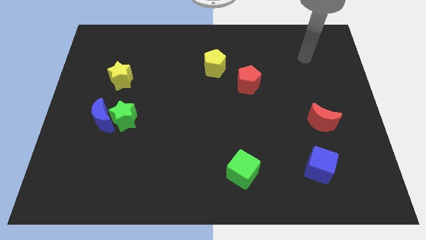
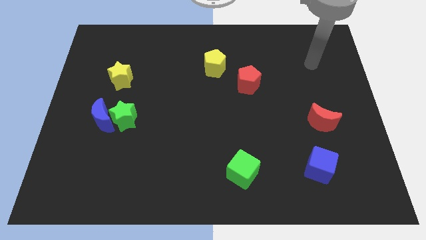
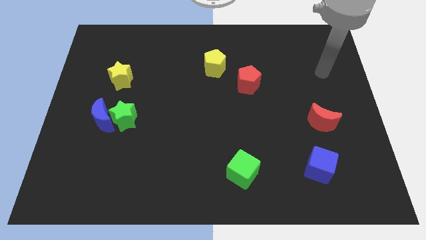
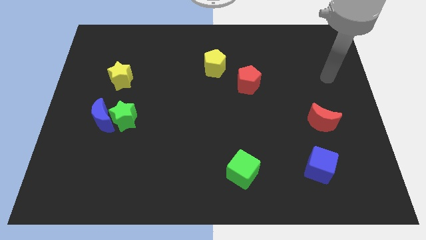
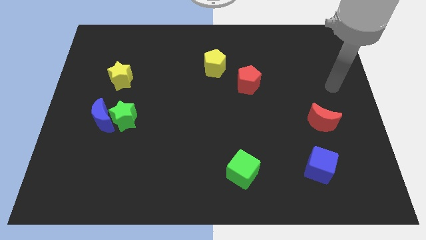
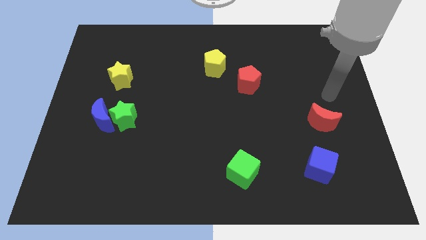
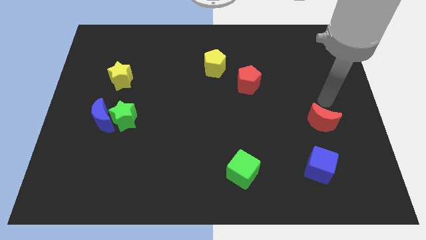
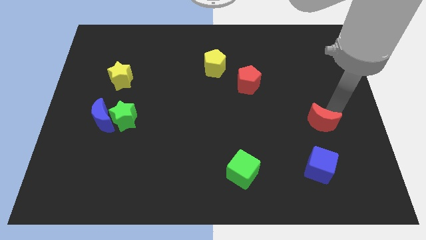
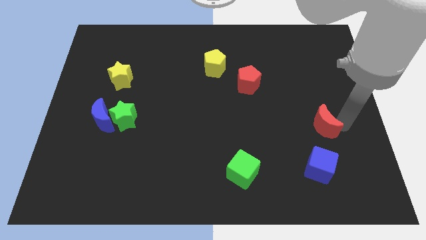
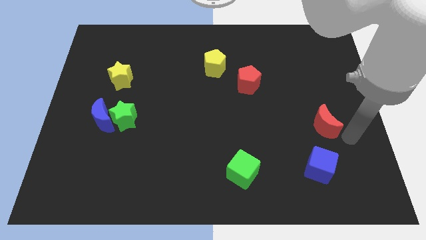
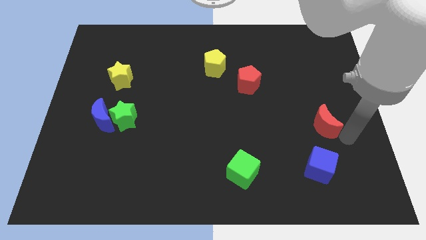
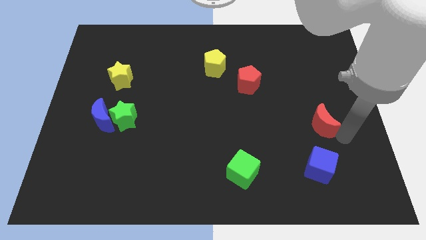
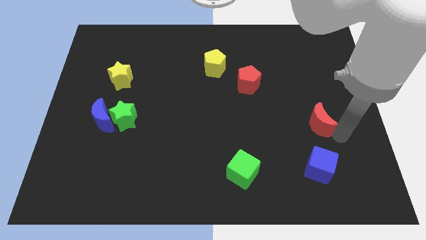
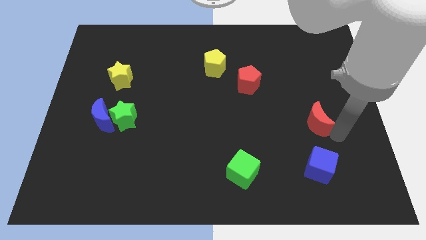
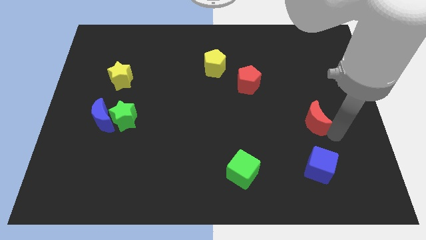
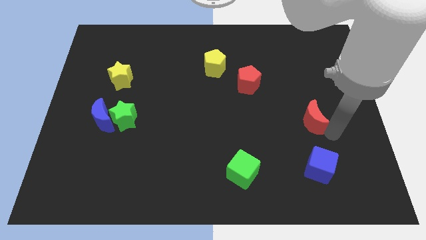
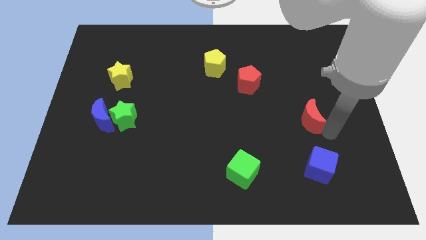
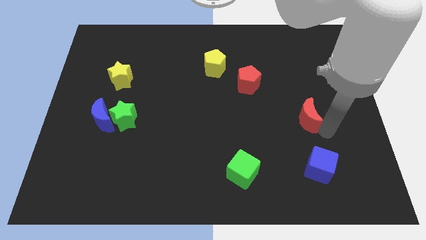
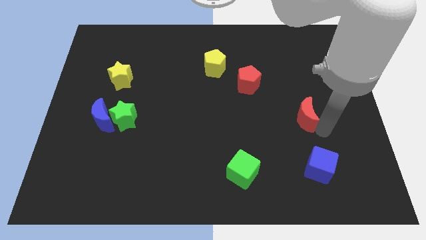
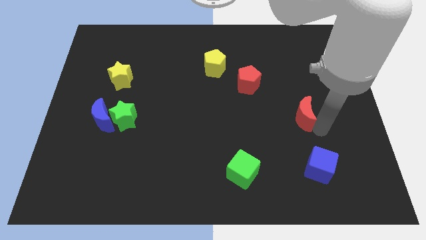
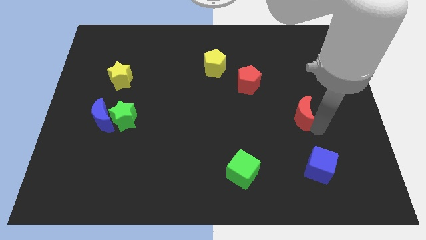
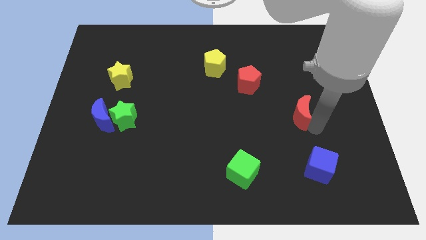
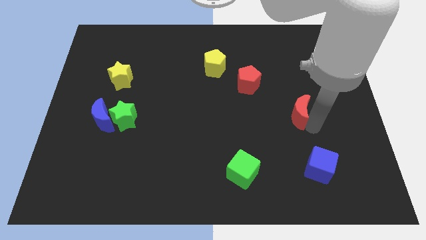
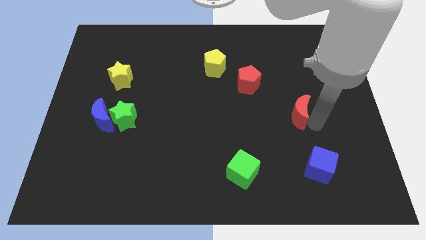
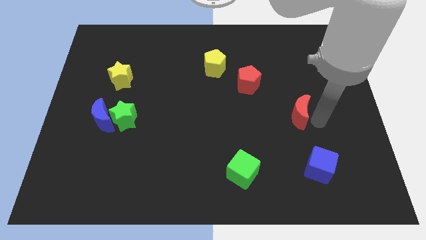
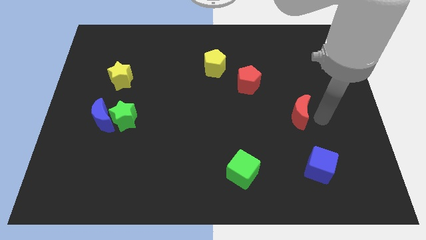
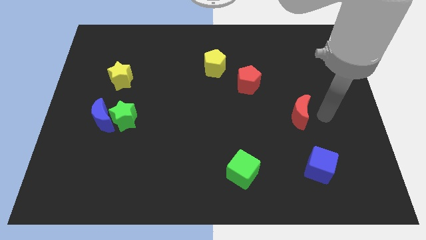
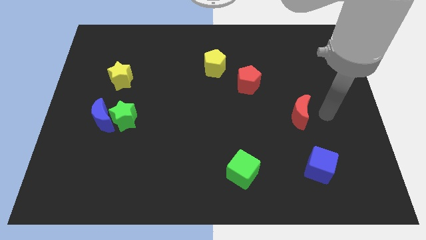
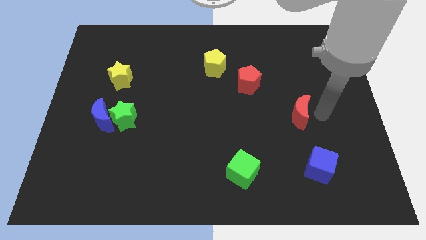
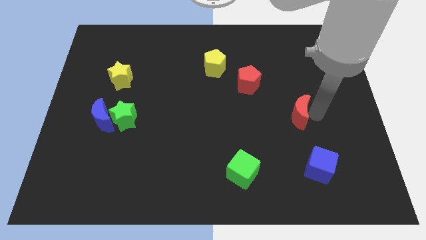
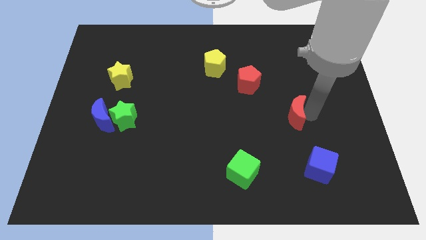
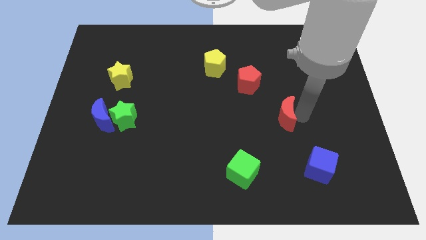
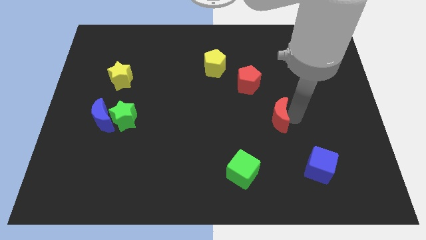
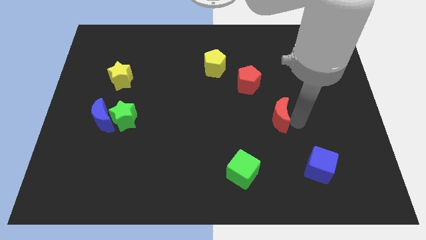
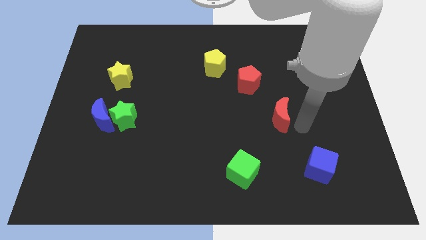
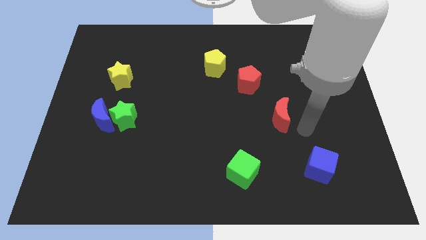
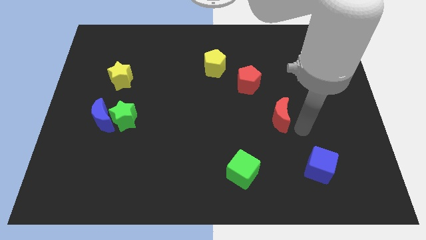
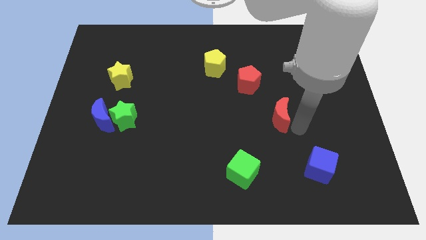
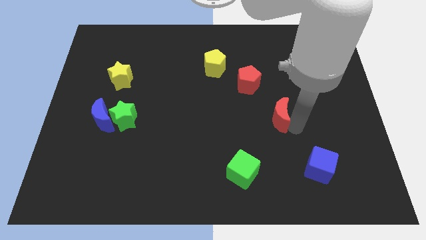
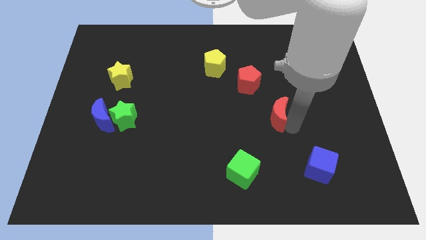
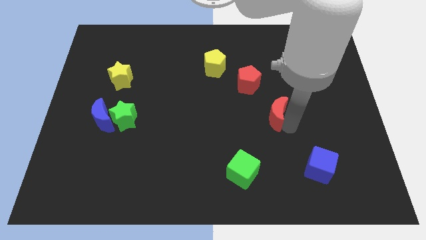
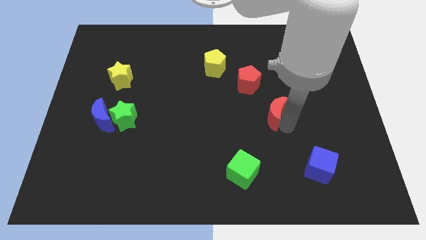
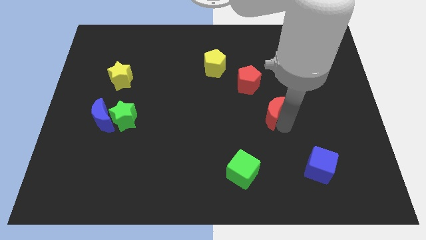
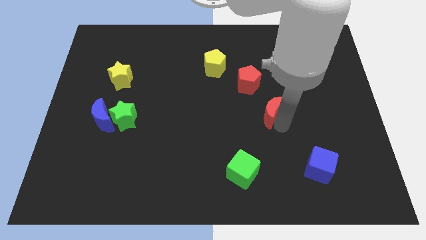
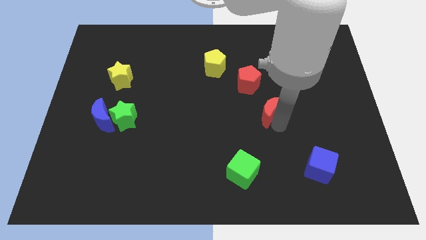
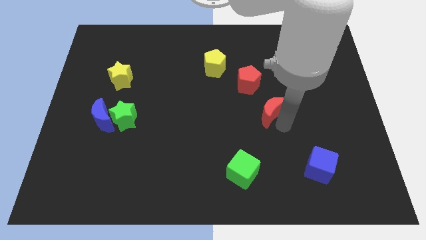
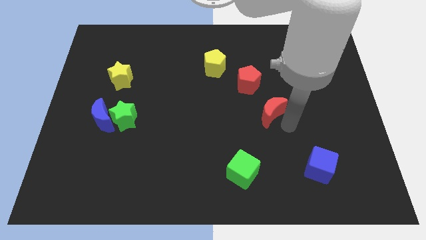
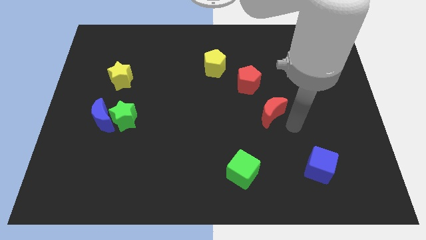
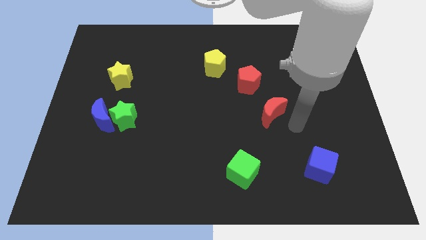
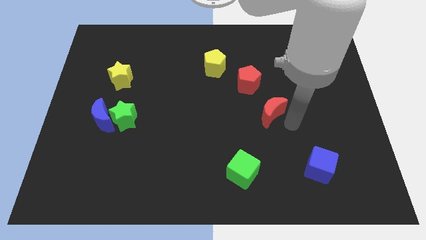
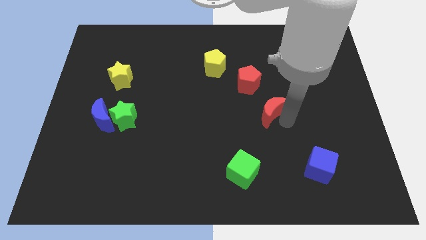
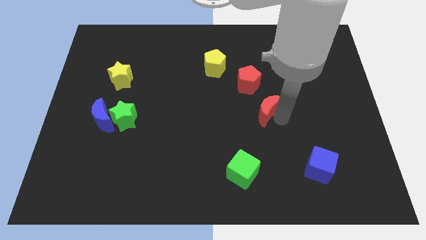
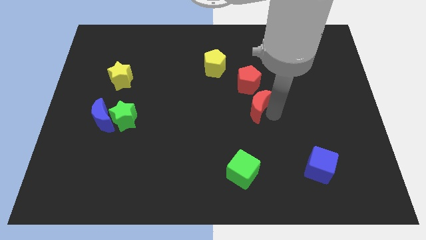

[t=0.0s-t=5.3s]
push the red moon to the middle of the board

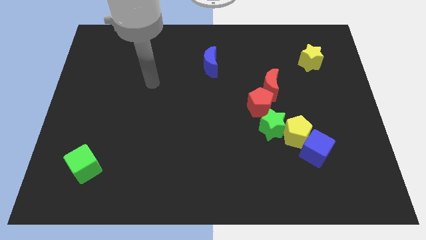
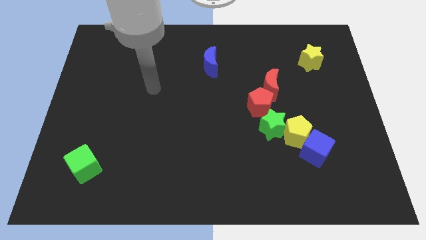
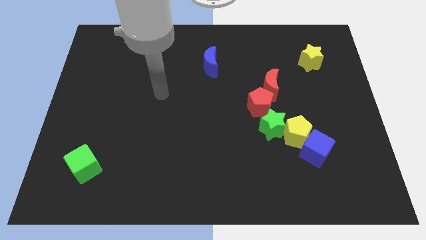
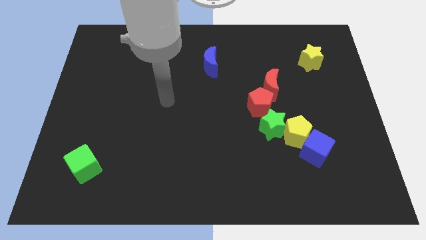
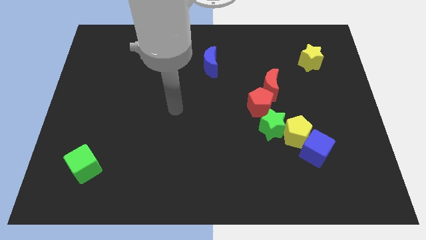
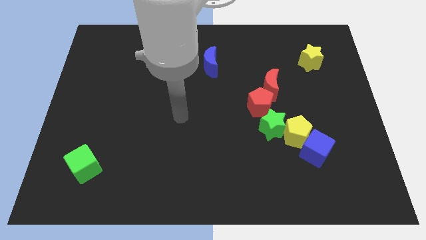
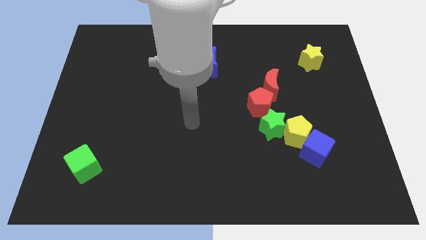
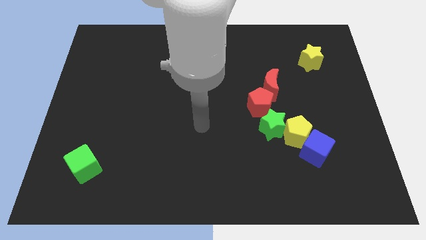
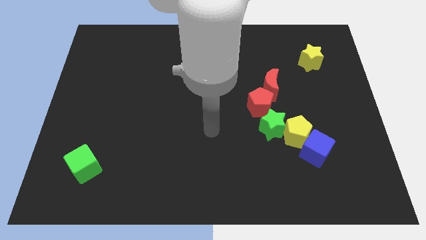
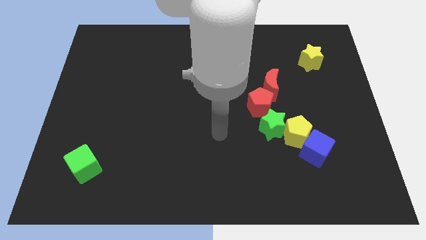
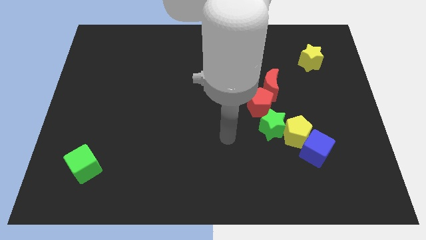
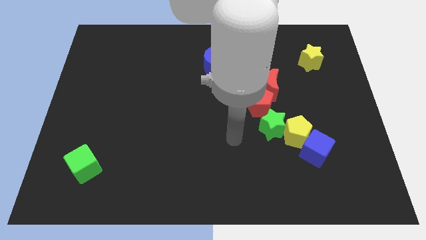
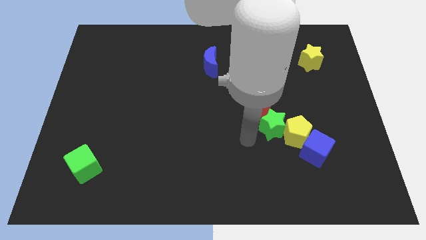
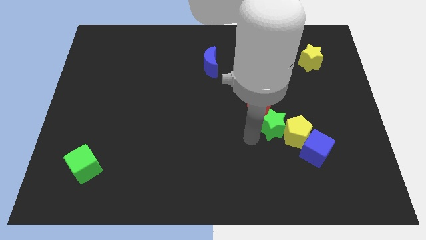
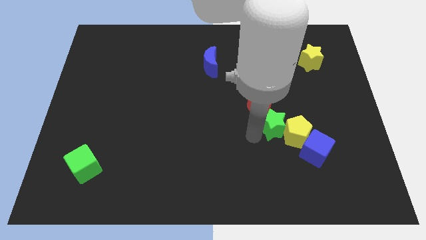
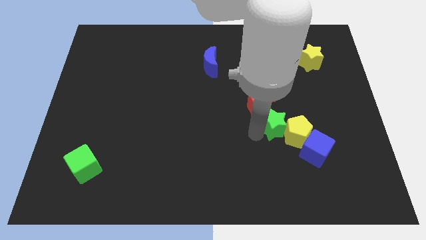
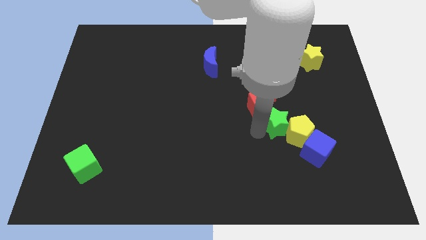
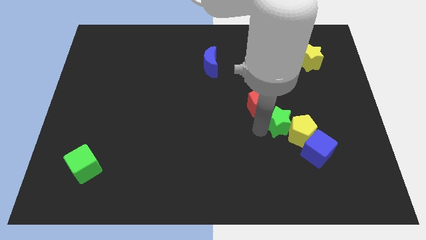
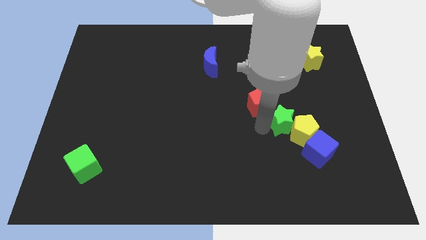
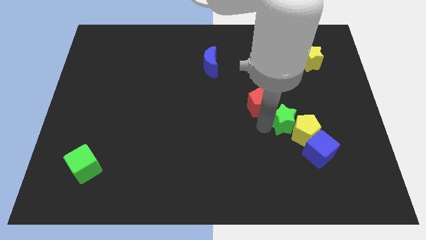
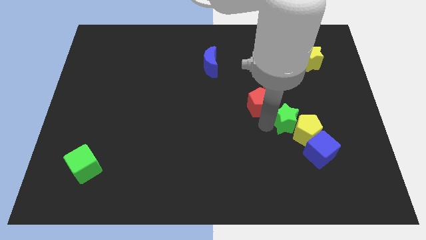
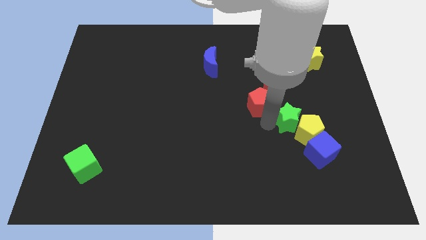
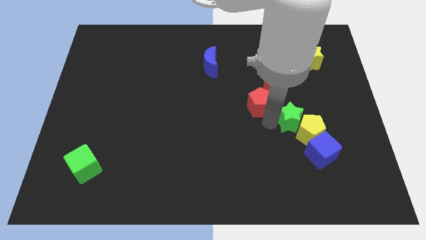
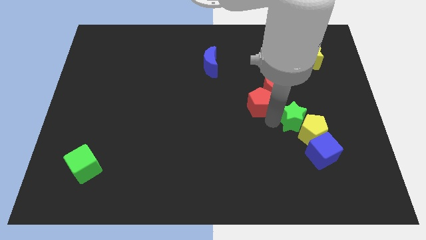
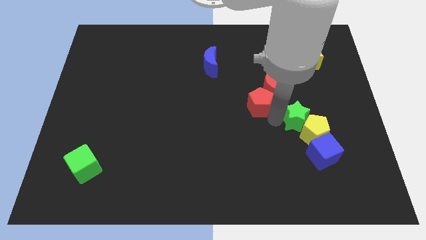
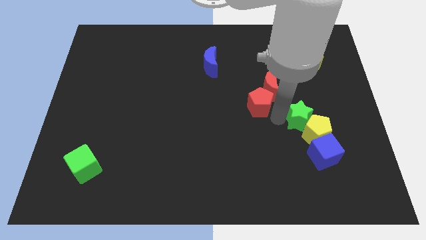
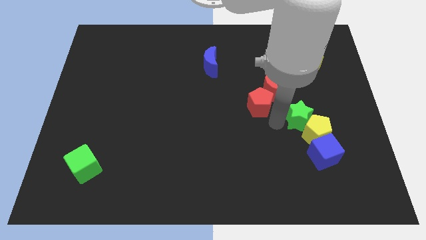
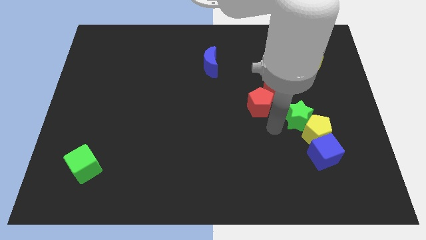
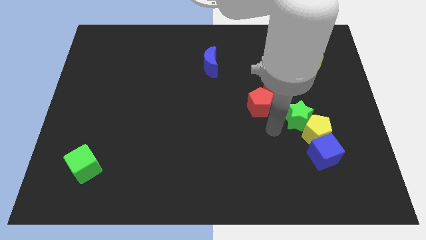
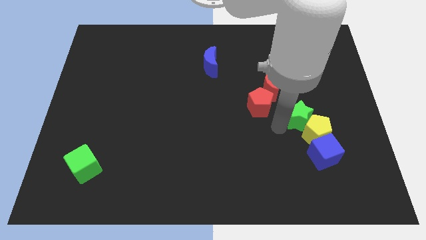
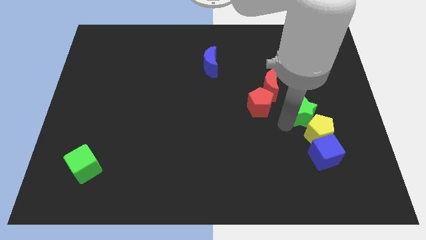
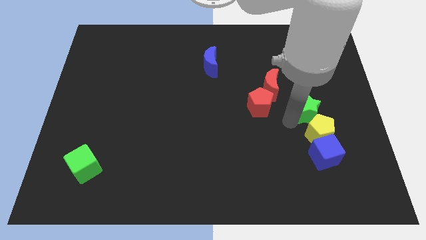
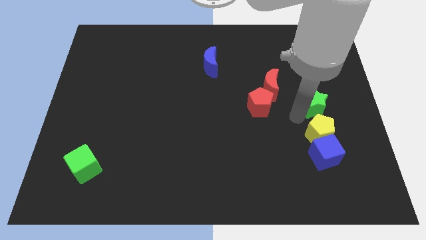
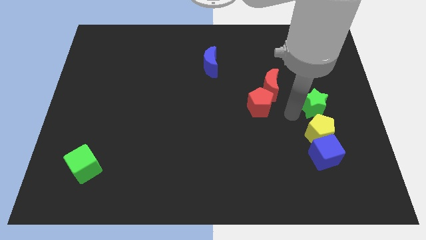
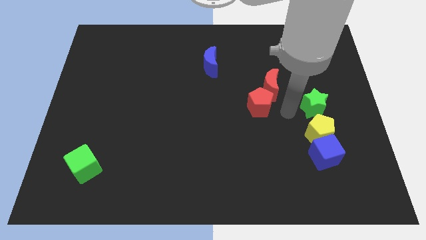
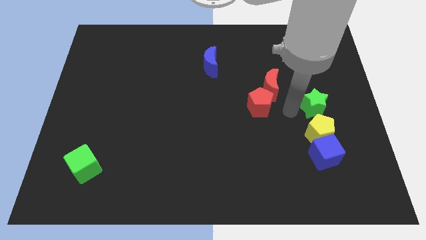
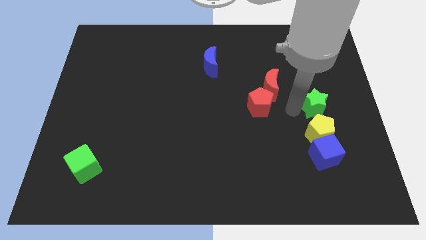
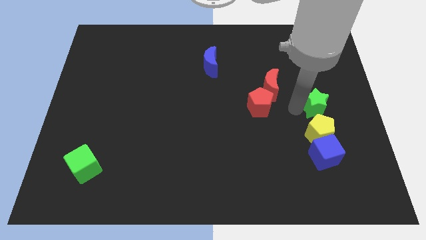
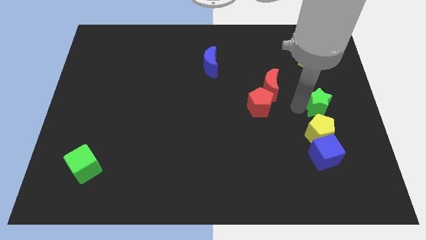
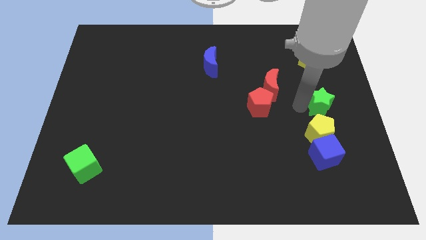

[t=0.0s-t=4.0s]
push the green star to the right side of the board
